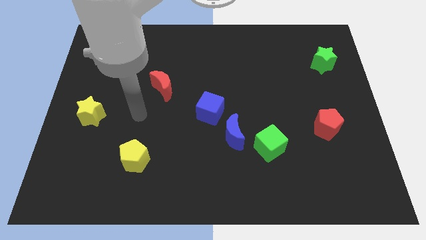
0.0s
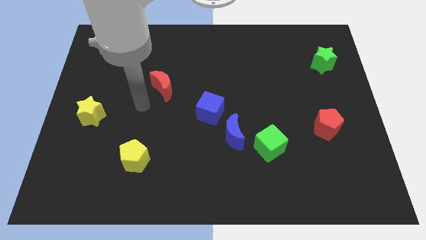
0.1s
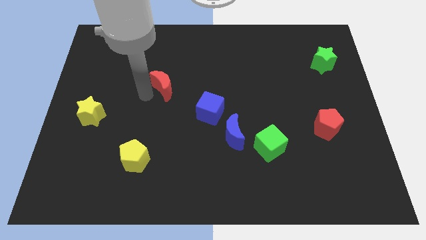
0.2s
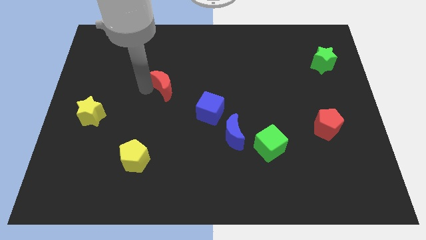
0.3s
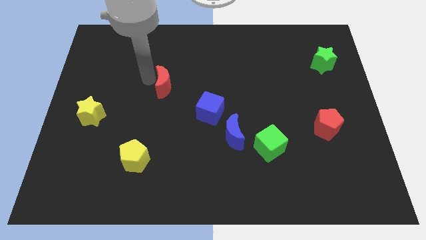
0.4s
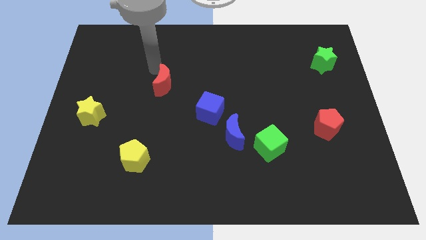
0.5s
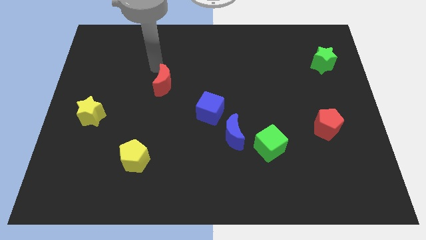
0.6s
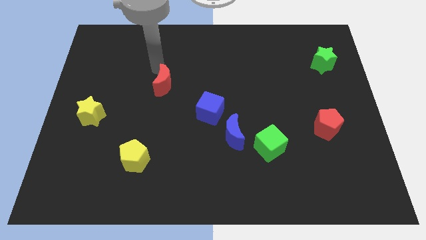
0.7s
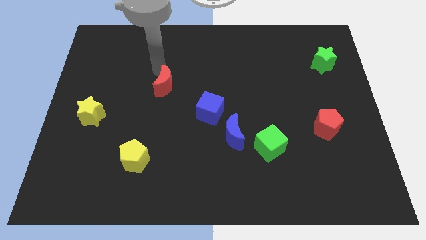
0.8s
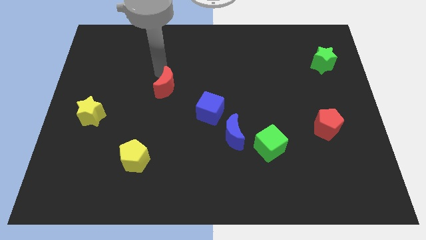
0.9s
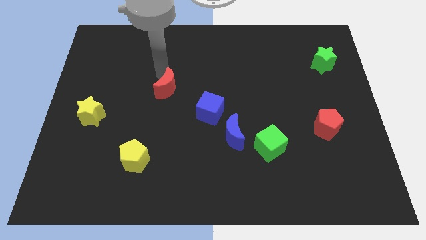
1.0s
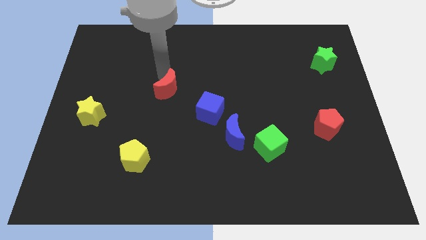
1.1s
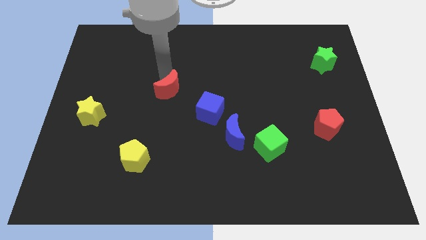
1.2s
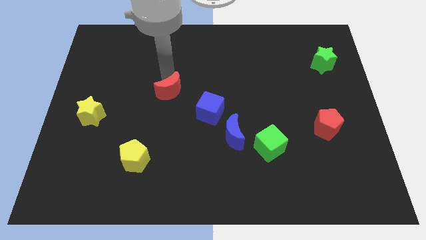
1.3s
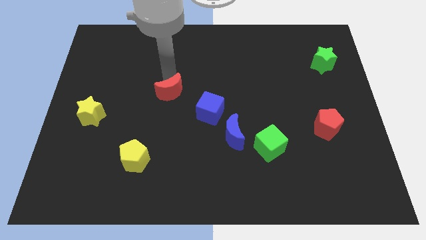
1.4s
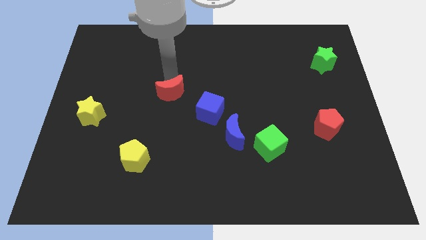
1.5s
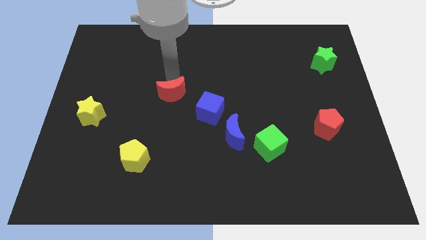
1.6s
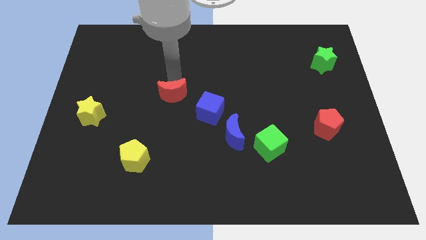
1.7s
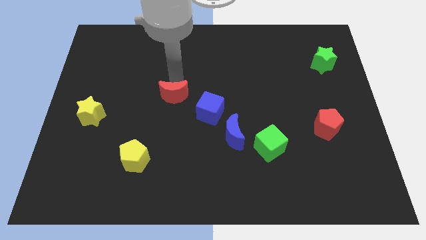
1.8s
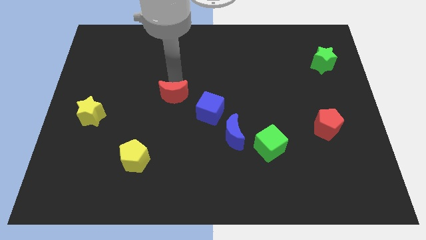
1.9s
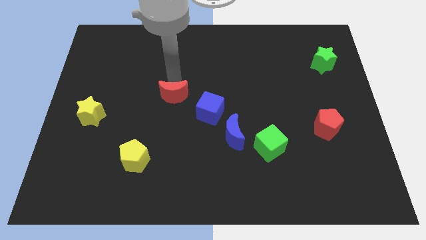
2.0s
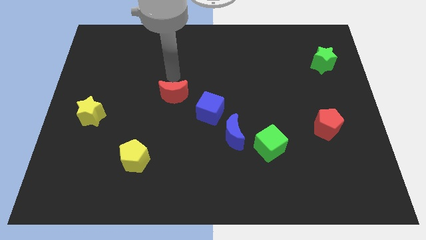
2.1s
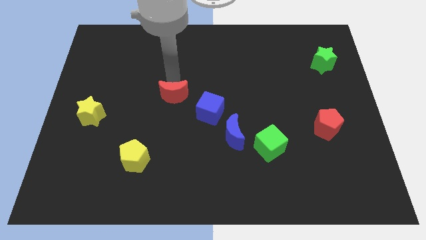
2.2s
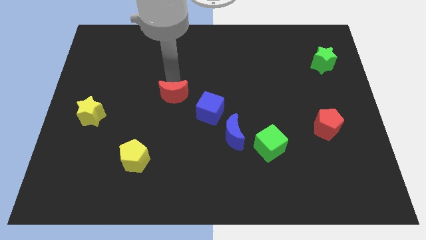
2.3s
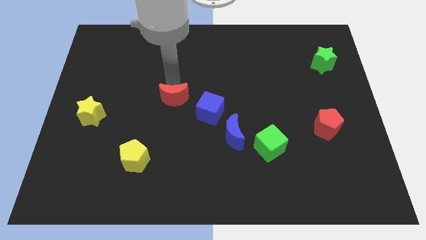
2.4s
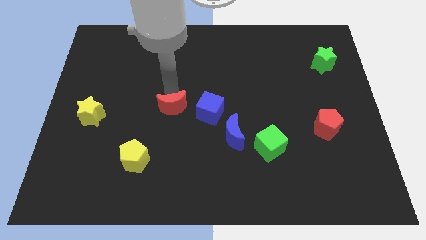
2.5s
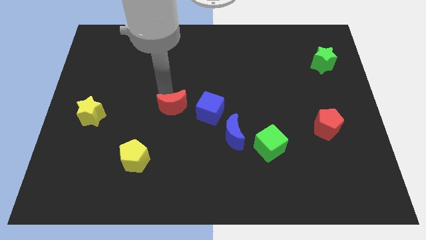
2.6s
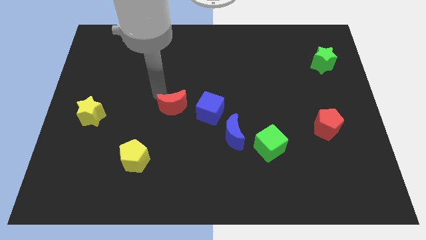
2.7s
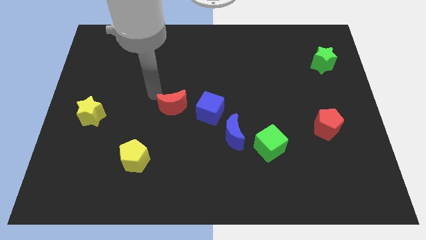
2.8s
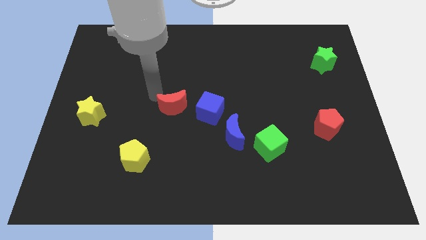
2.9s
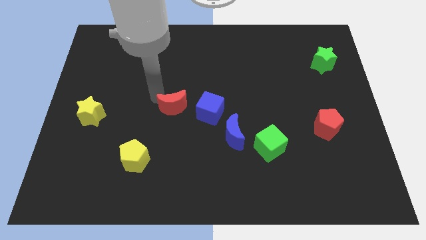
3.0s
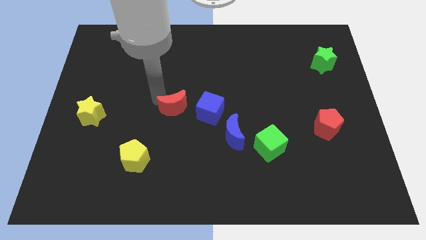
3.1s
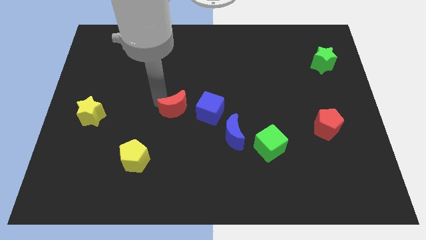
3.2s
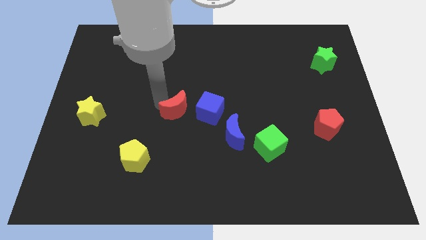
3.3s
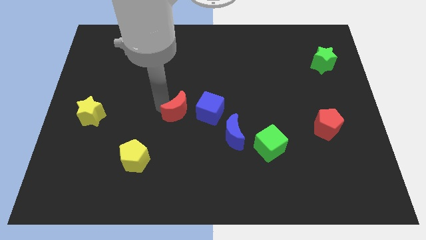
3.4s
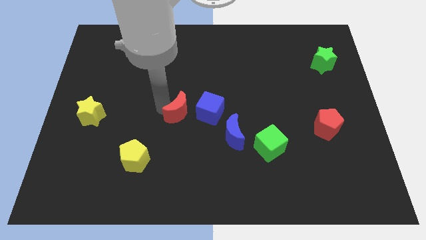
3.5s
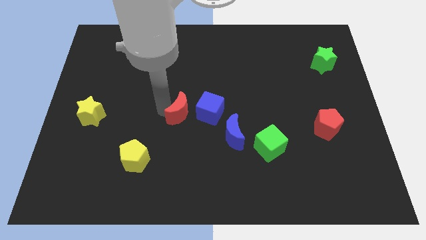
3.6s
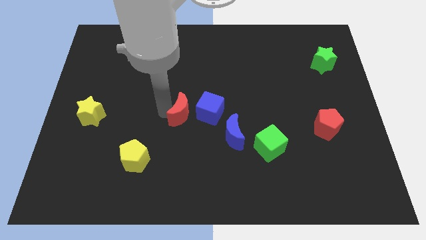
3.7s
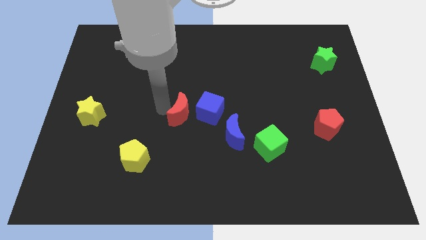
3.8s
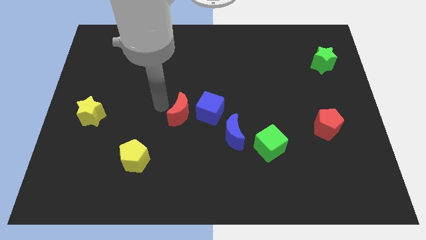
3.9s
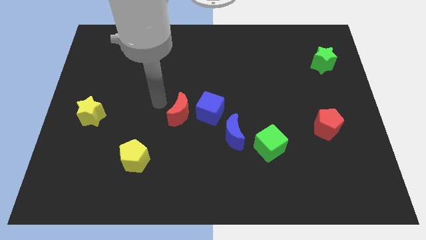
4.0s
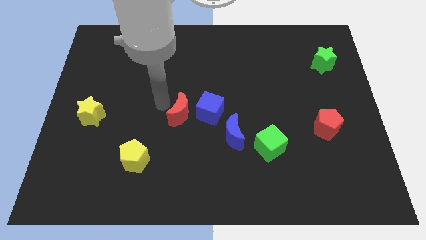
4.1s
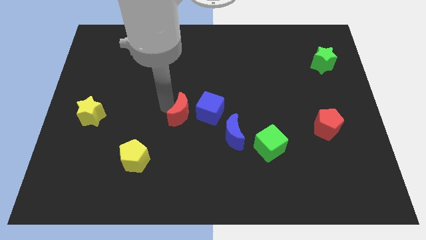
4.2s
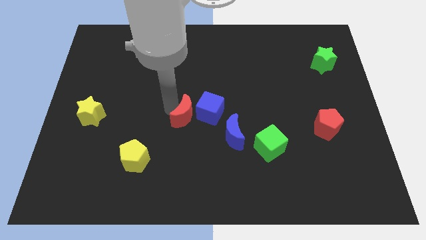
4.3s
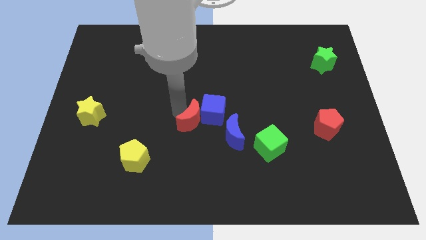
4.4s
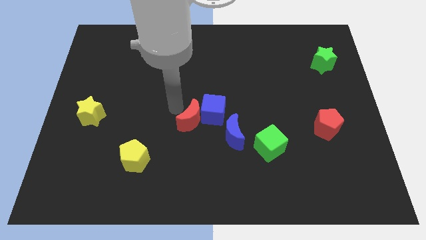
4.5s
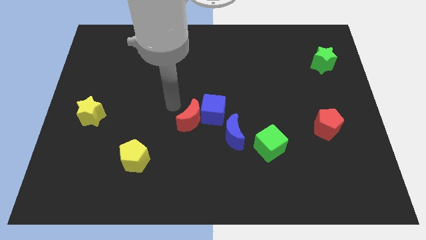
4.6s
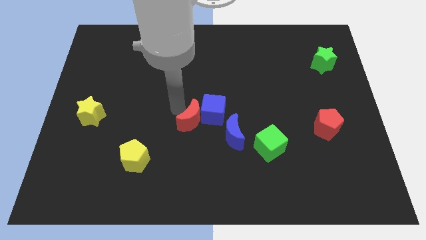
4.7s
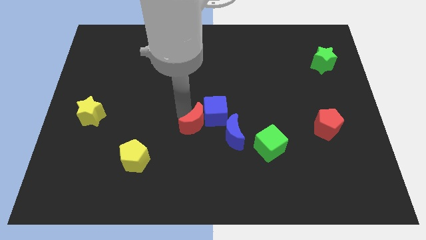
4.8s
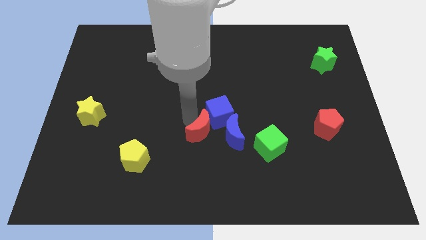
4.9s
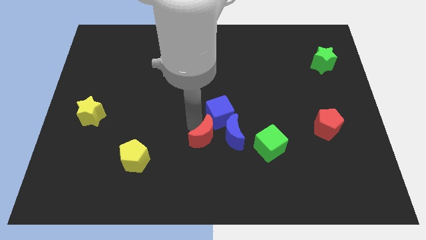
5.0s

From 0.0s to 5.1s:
push the red moon just left of the green cube

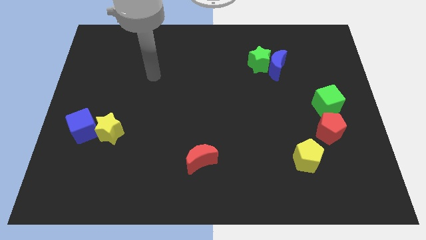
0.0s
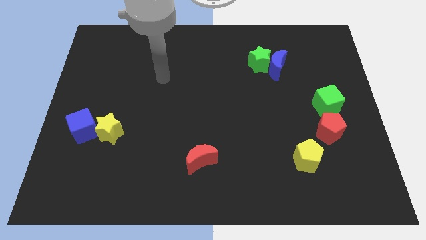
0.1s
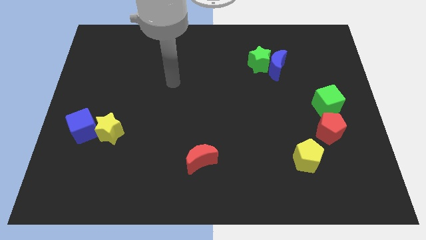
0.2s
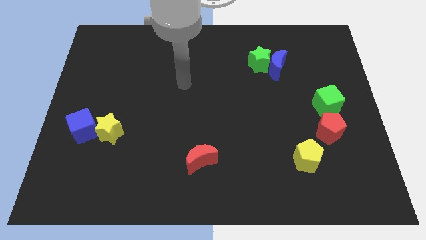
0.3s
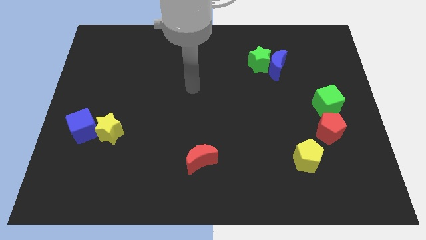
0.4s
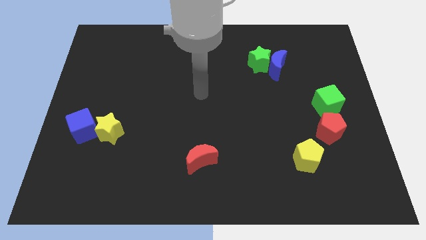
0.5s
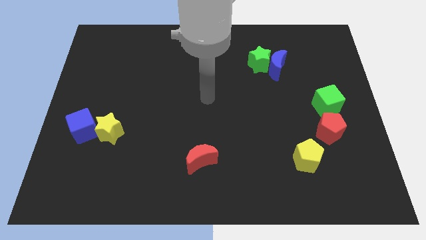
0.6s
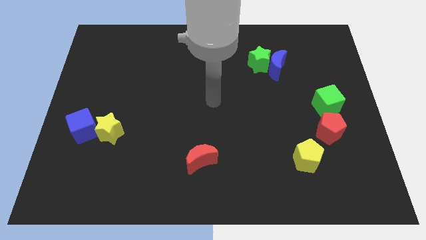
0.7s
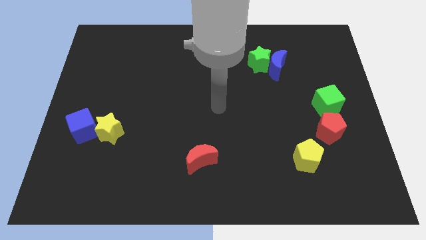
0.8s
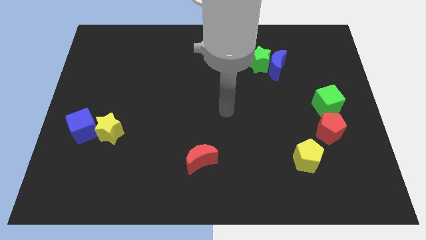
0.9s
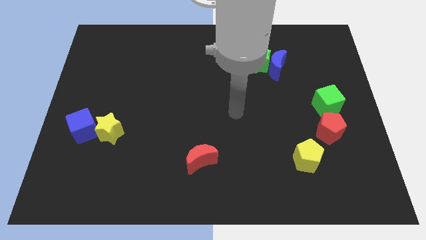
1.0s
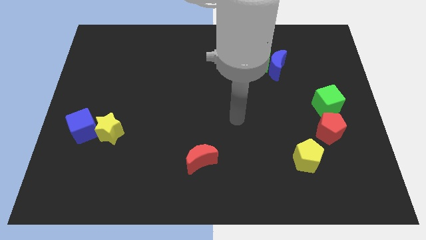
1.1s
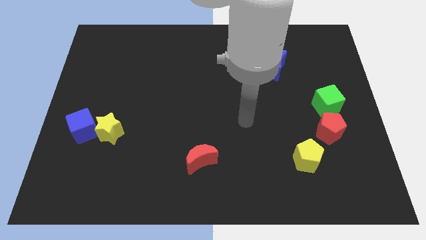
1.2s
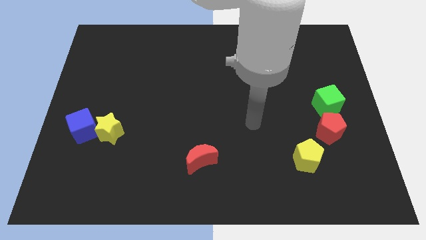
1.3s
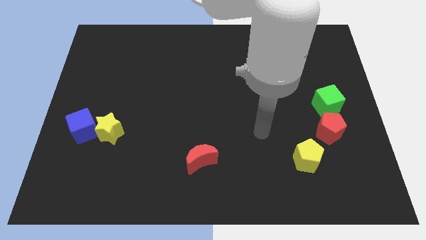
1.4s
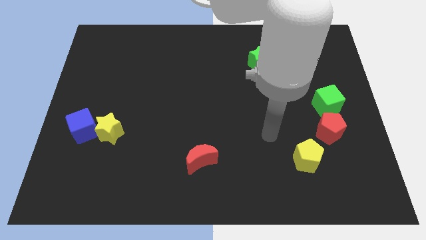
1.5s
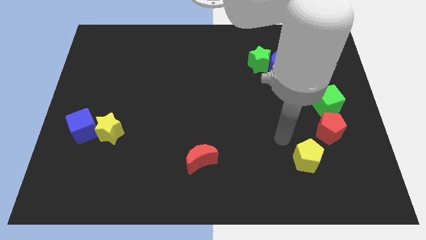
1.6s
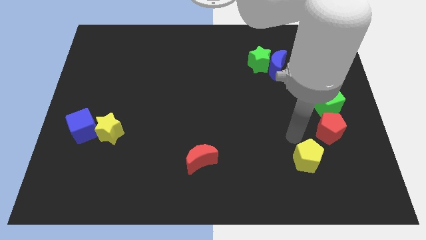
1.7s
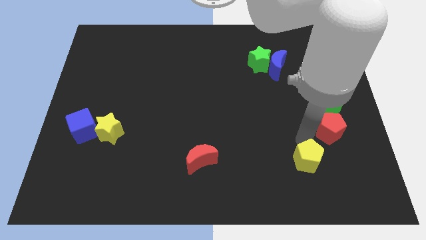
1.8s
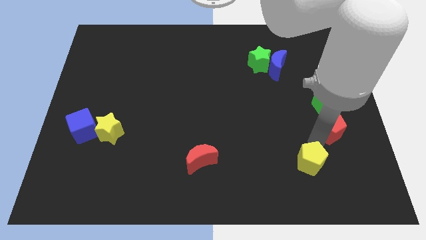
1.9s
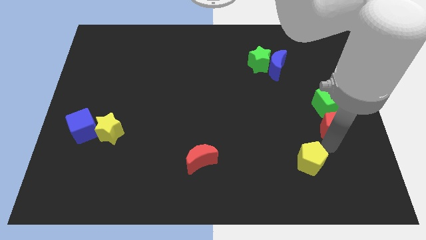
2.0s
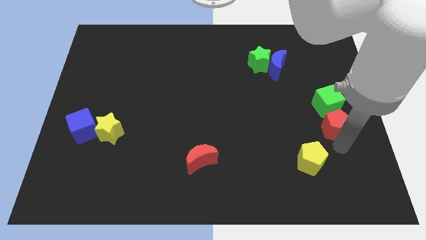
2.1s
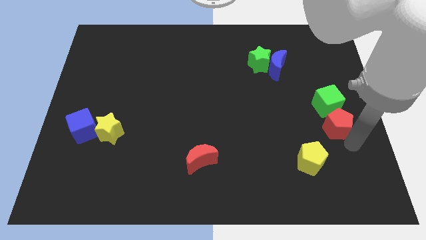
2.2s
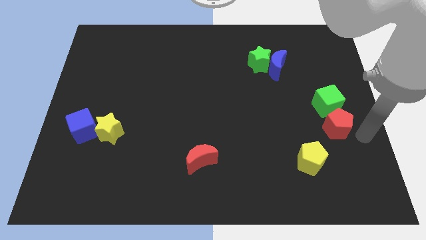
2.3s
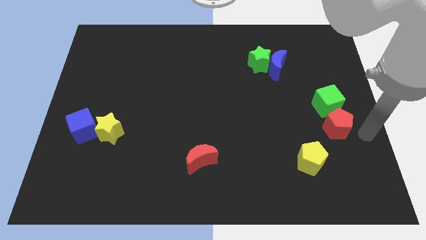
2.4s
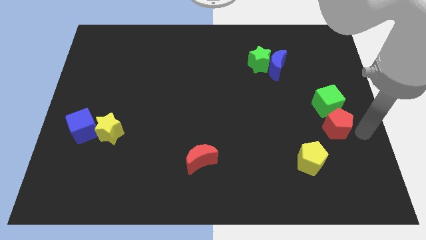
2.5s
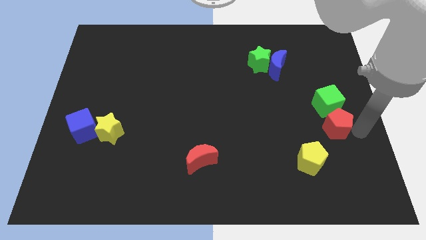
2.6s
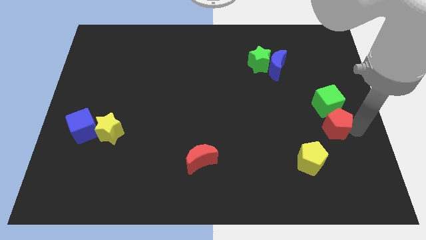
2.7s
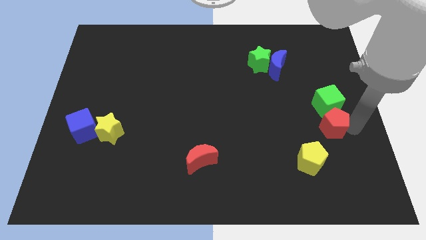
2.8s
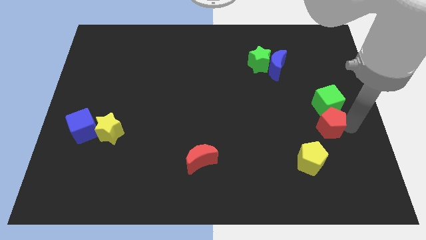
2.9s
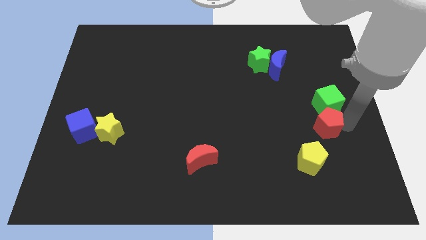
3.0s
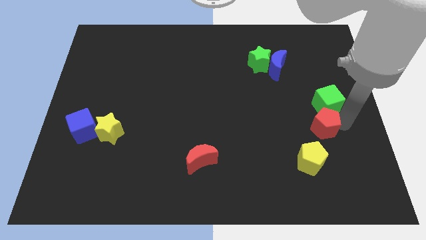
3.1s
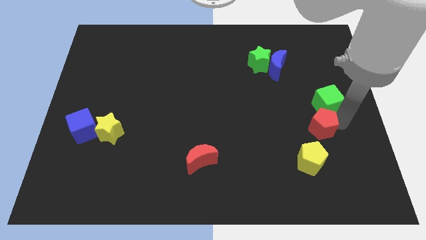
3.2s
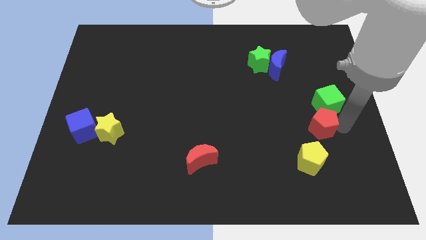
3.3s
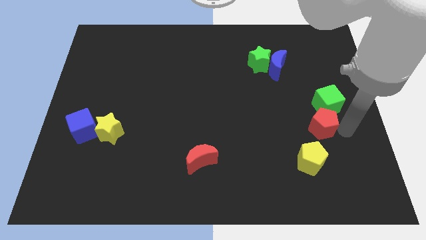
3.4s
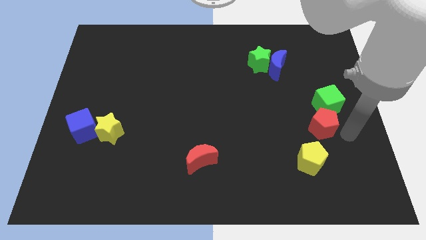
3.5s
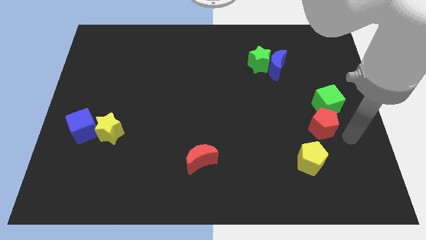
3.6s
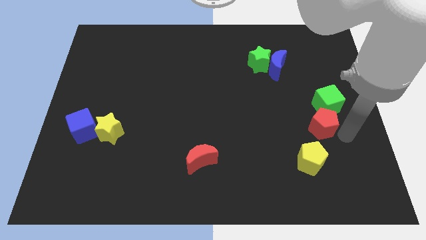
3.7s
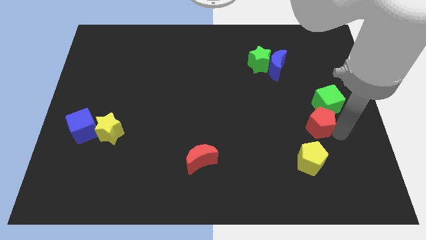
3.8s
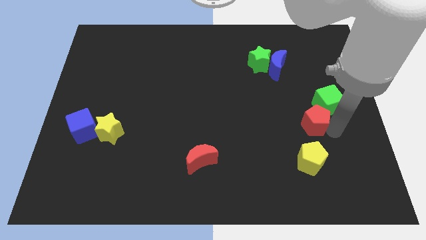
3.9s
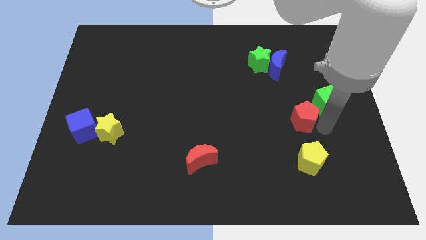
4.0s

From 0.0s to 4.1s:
push the red pentagon to the left of the green cube
